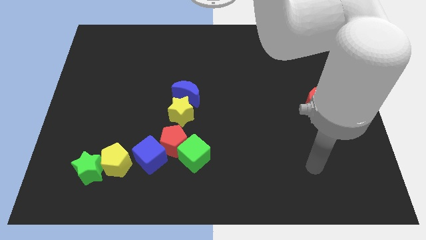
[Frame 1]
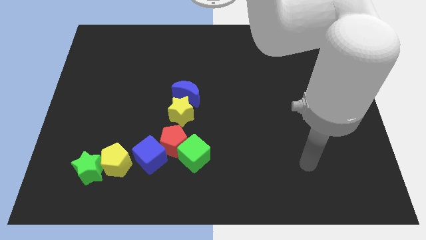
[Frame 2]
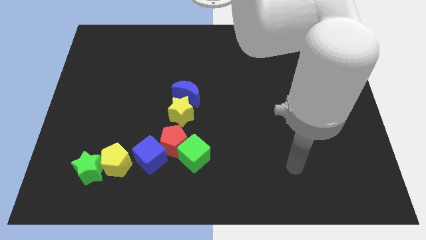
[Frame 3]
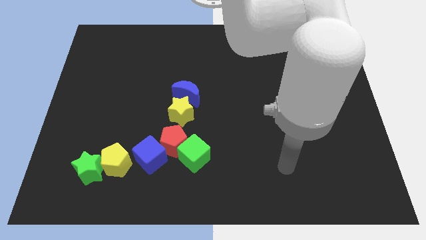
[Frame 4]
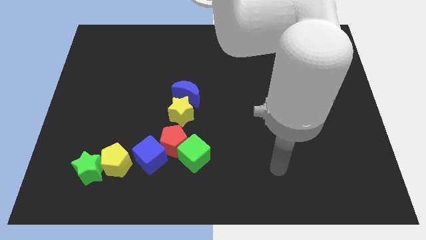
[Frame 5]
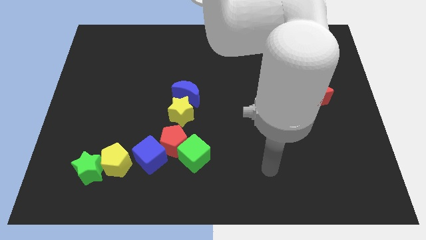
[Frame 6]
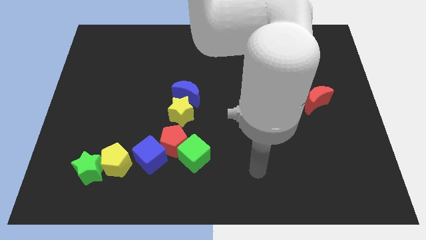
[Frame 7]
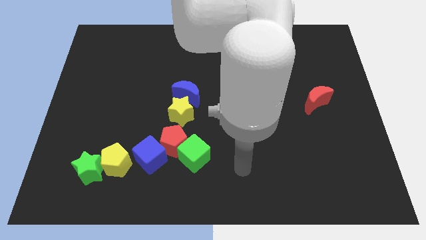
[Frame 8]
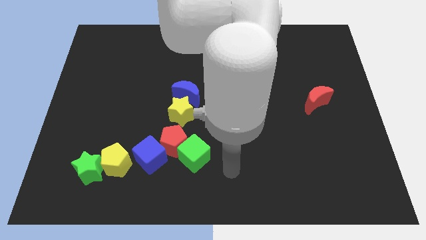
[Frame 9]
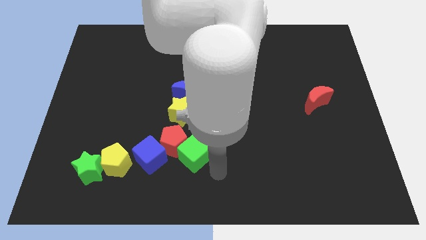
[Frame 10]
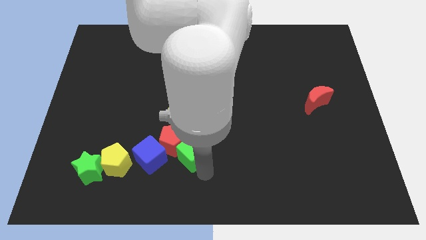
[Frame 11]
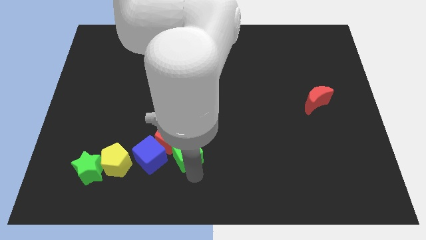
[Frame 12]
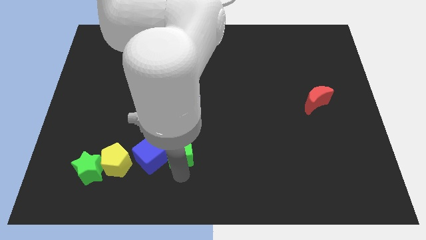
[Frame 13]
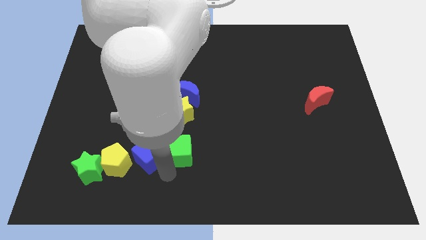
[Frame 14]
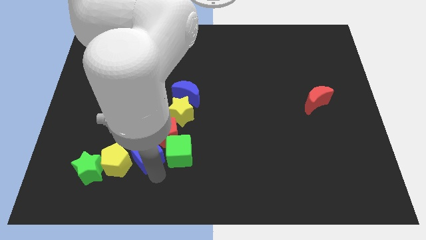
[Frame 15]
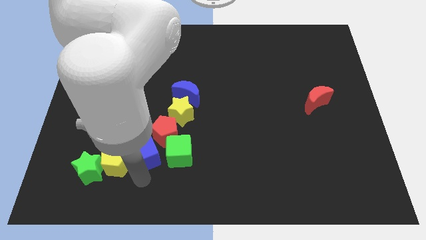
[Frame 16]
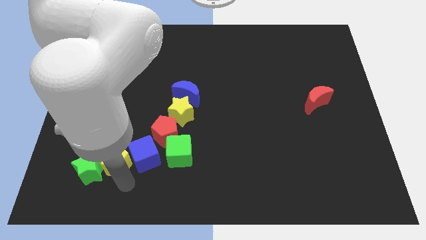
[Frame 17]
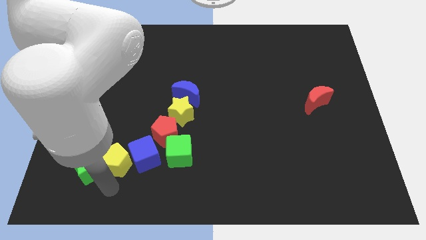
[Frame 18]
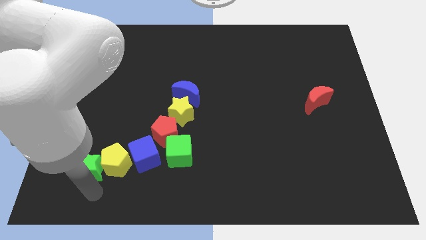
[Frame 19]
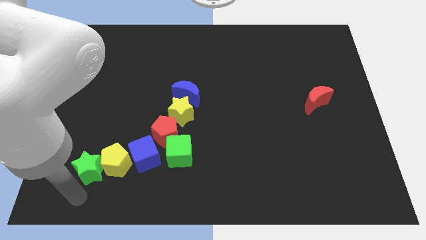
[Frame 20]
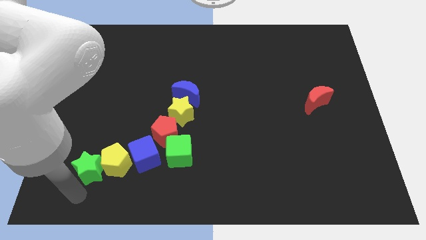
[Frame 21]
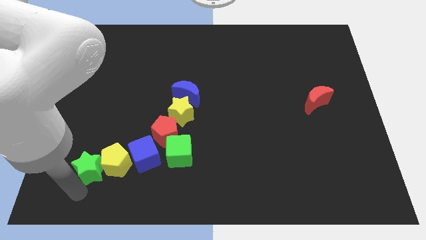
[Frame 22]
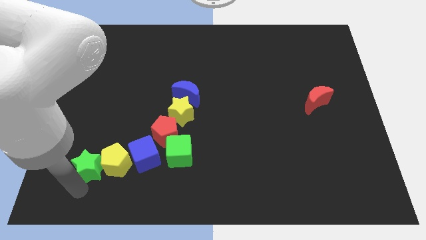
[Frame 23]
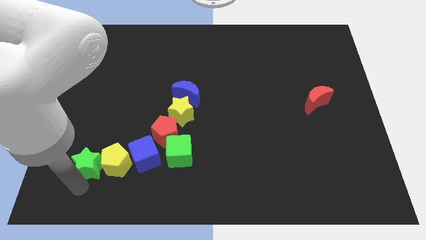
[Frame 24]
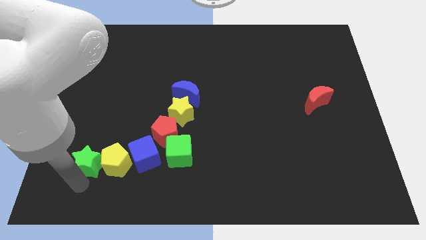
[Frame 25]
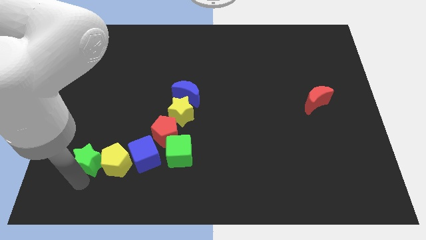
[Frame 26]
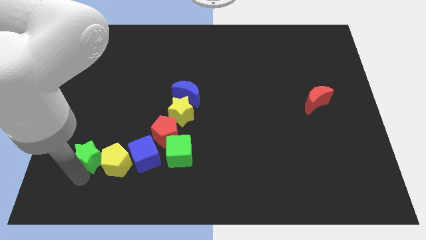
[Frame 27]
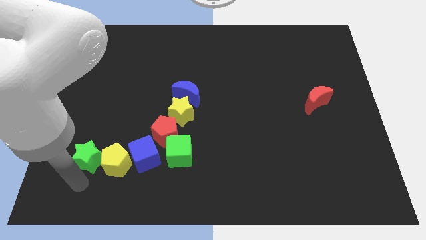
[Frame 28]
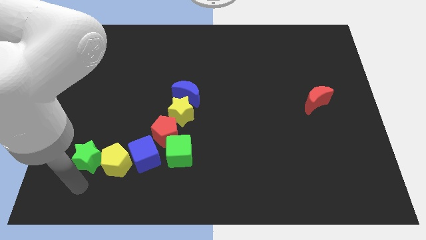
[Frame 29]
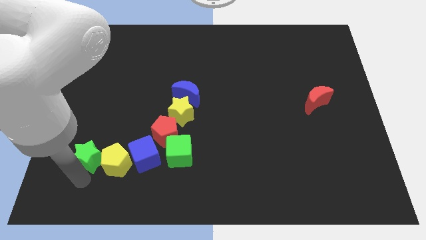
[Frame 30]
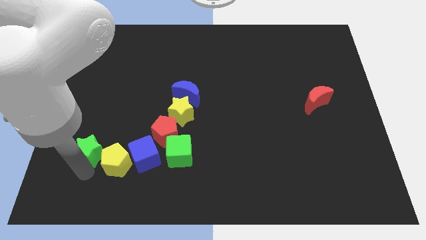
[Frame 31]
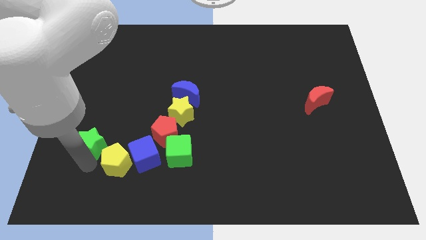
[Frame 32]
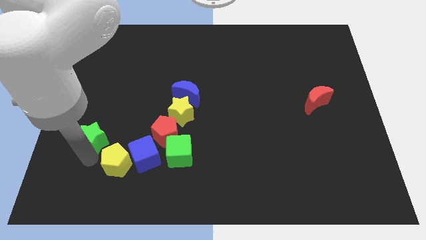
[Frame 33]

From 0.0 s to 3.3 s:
slightly slide the green star upwards

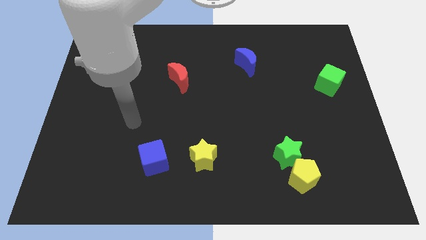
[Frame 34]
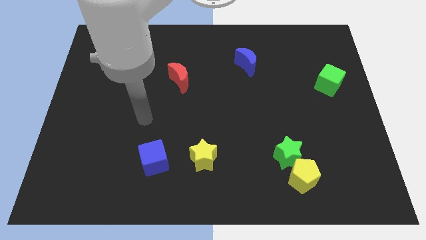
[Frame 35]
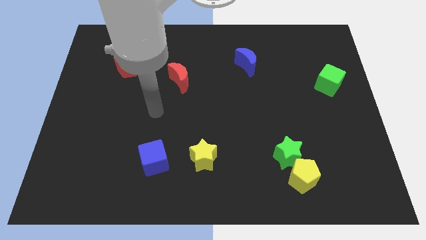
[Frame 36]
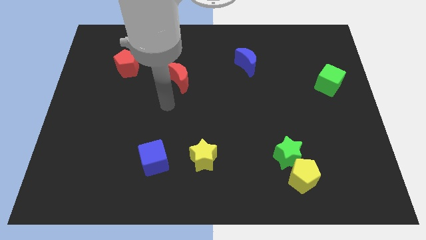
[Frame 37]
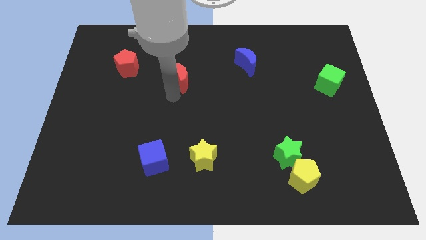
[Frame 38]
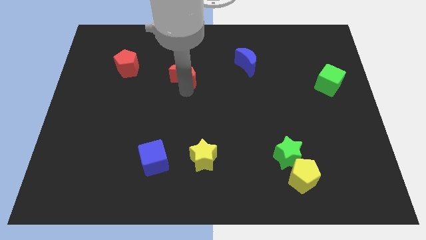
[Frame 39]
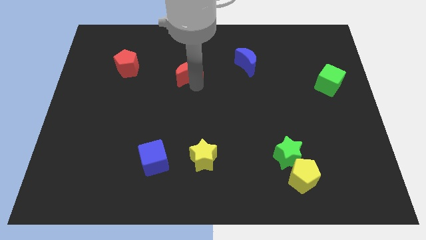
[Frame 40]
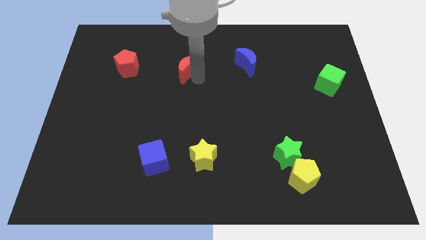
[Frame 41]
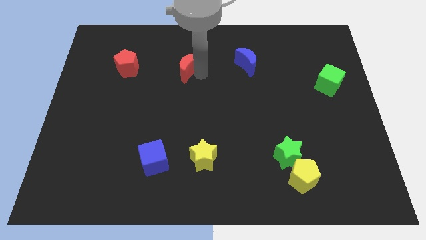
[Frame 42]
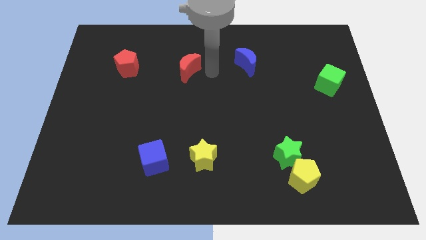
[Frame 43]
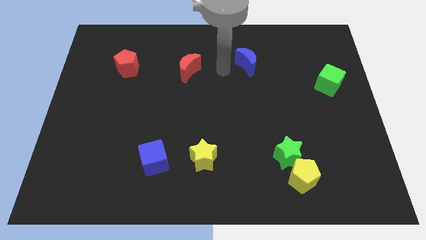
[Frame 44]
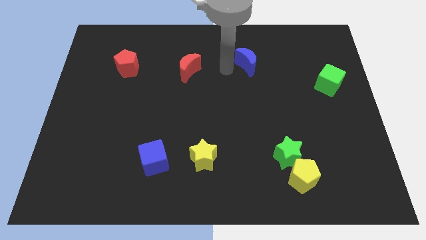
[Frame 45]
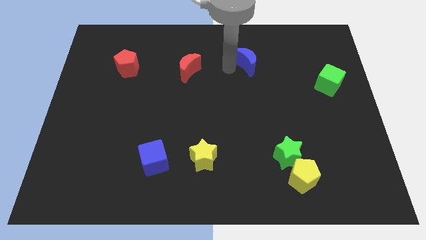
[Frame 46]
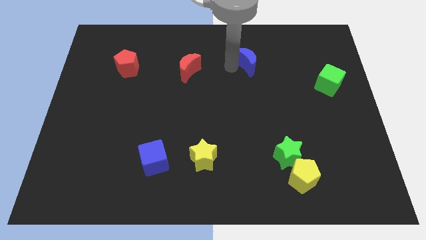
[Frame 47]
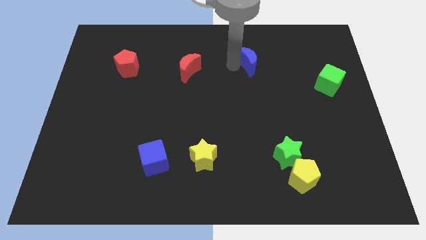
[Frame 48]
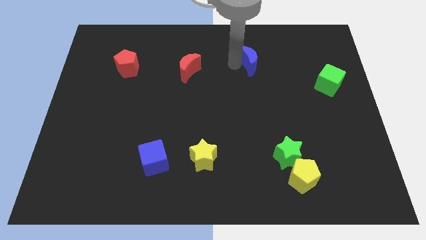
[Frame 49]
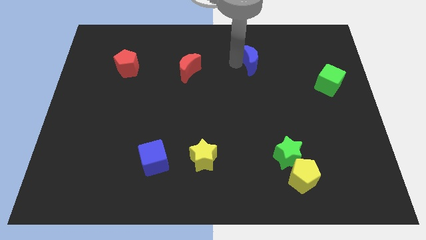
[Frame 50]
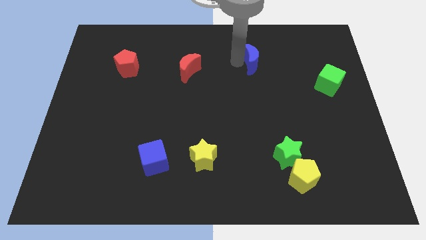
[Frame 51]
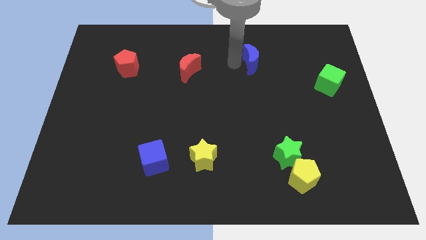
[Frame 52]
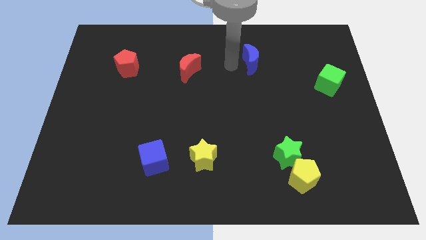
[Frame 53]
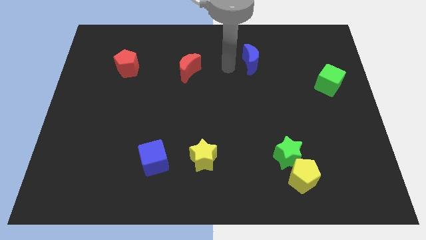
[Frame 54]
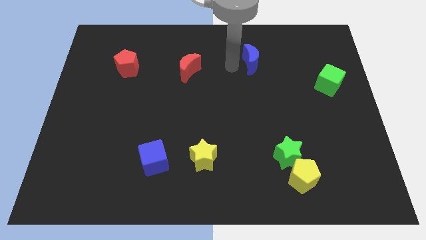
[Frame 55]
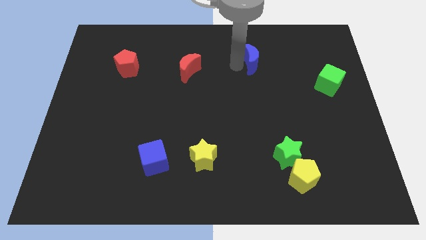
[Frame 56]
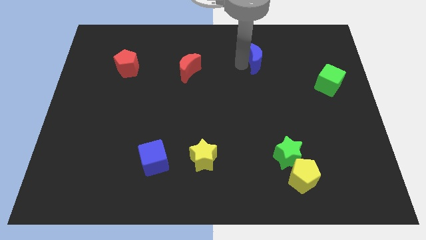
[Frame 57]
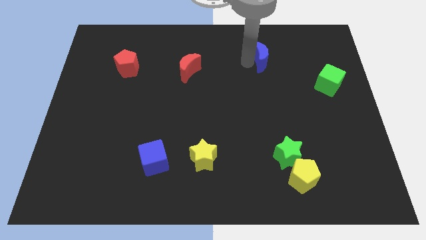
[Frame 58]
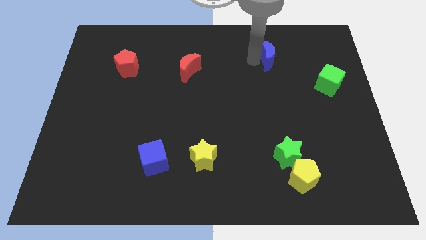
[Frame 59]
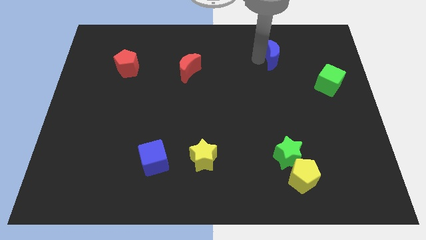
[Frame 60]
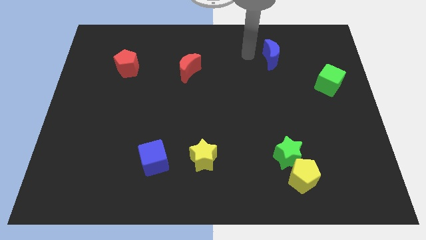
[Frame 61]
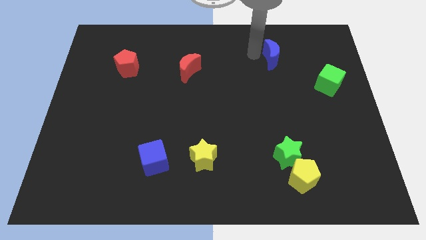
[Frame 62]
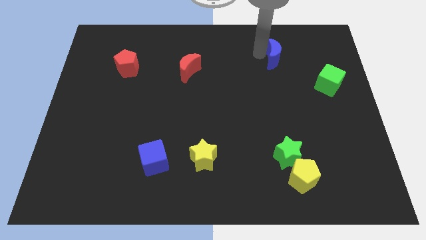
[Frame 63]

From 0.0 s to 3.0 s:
slightly slide the blue moon to the right

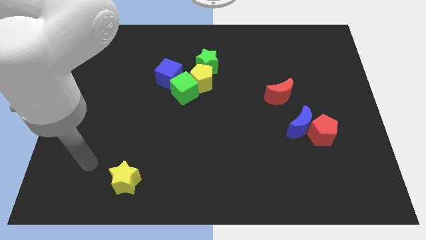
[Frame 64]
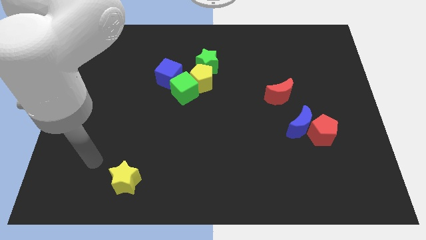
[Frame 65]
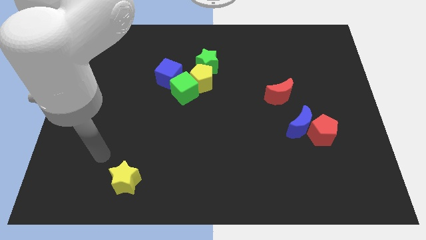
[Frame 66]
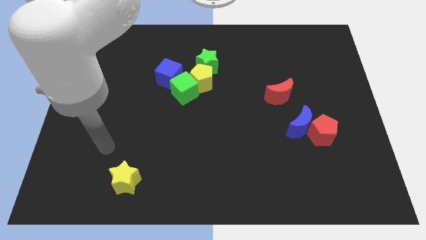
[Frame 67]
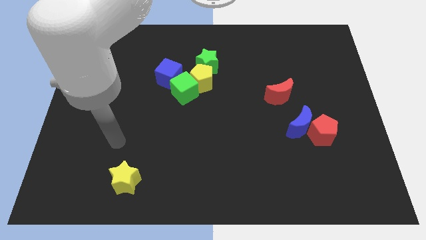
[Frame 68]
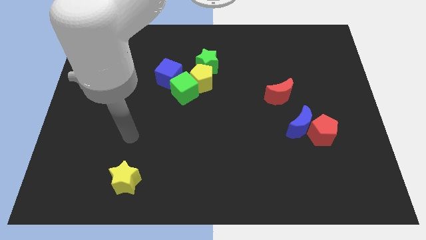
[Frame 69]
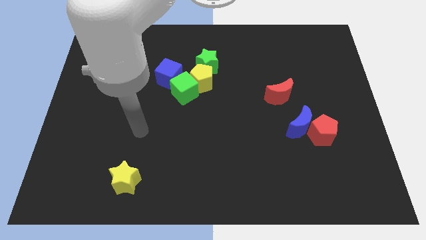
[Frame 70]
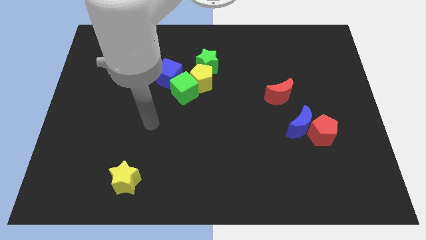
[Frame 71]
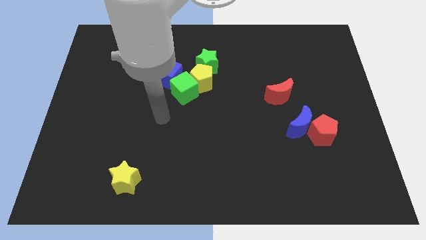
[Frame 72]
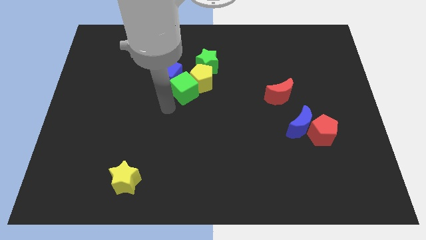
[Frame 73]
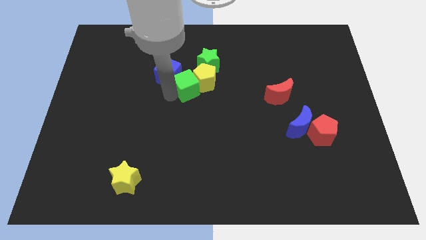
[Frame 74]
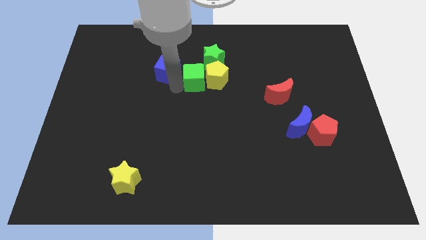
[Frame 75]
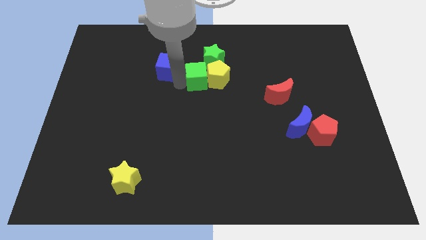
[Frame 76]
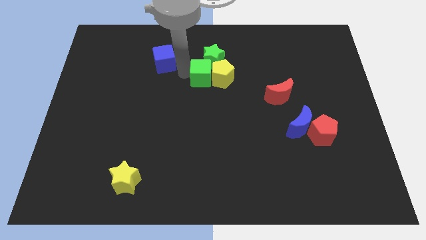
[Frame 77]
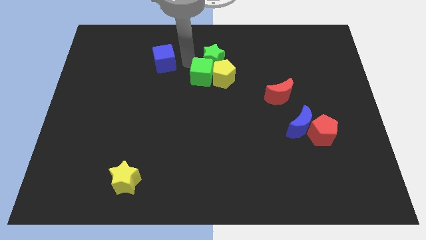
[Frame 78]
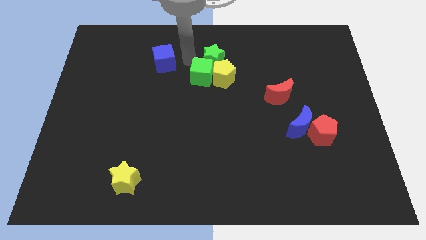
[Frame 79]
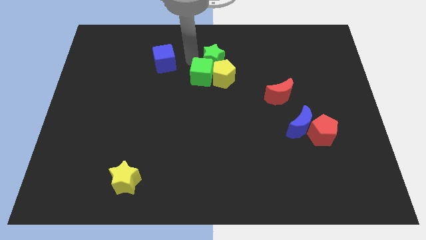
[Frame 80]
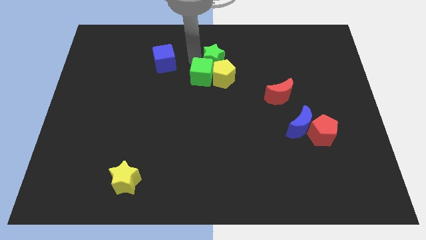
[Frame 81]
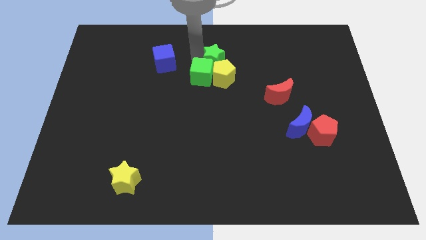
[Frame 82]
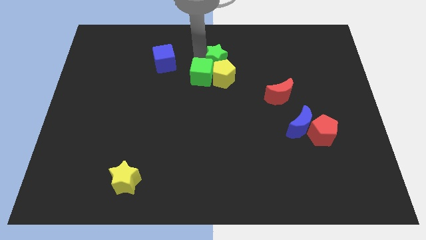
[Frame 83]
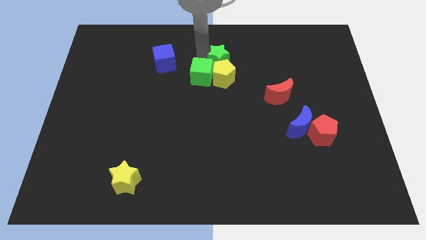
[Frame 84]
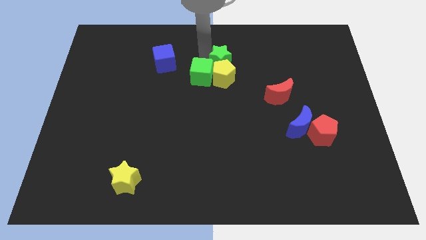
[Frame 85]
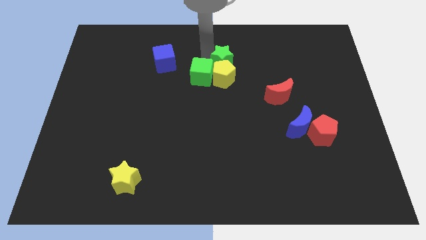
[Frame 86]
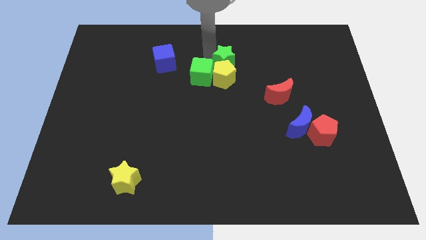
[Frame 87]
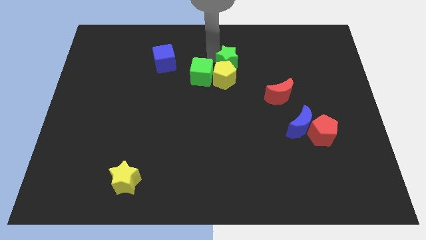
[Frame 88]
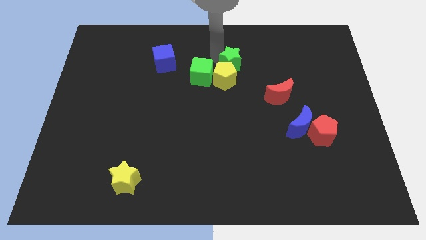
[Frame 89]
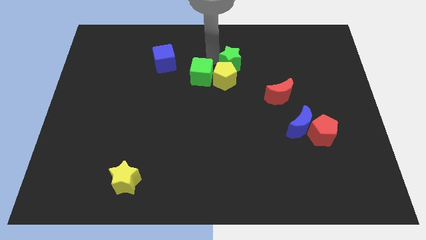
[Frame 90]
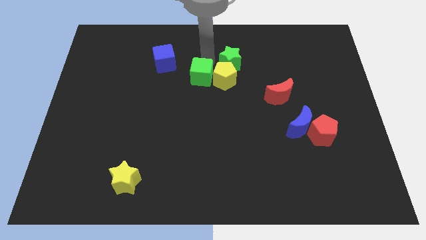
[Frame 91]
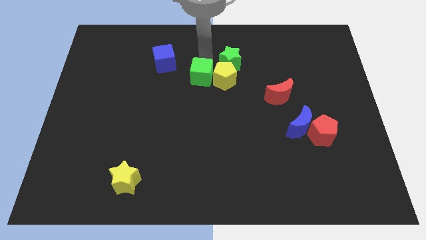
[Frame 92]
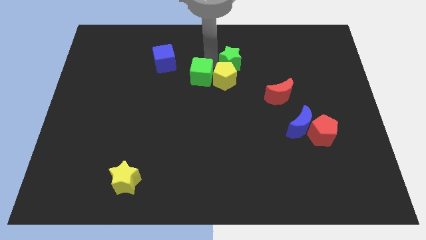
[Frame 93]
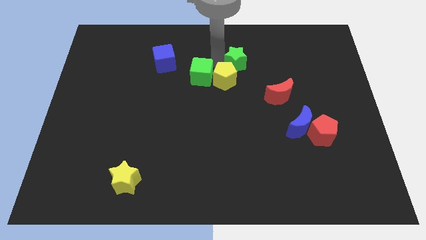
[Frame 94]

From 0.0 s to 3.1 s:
push the green star right a bit
